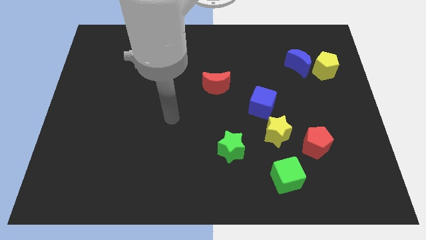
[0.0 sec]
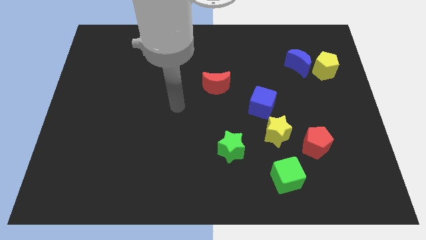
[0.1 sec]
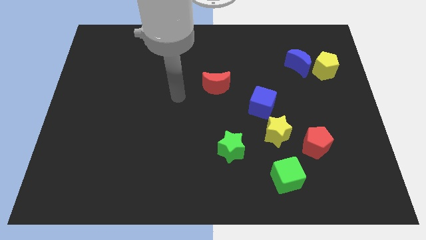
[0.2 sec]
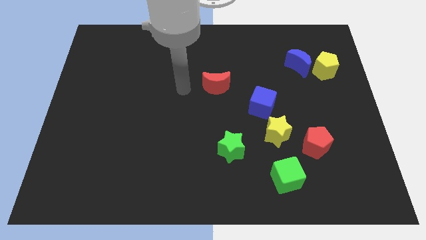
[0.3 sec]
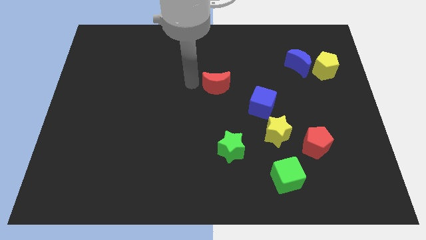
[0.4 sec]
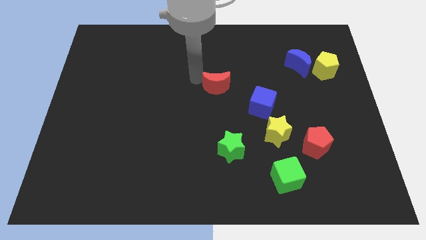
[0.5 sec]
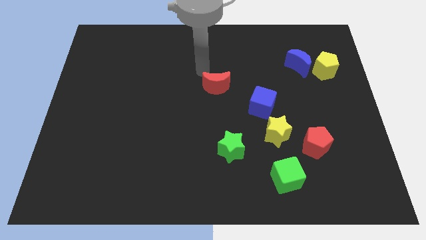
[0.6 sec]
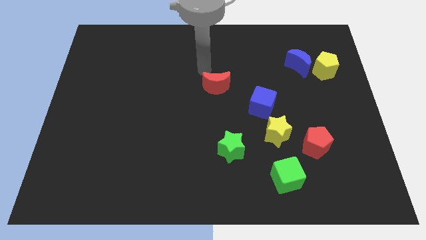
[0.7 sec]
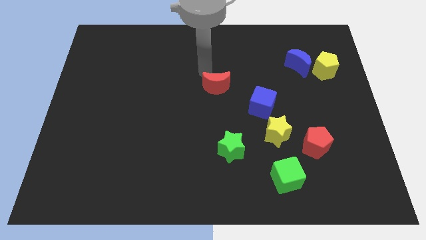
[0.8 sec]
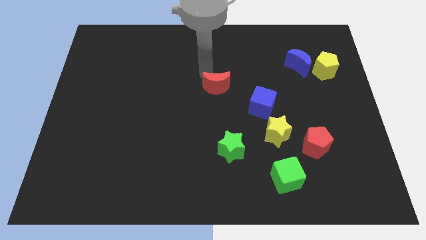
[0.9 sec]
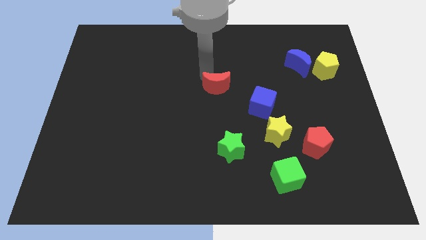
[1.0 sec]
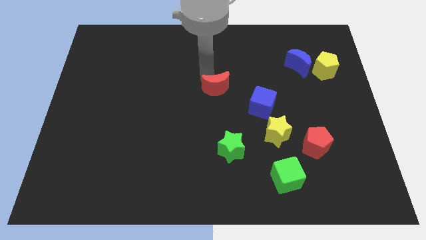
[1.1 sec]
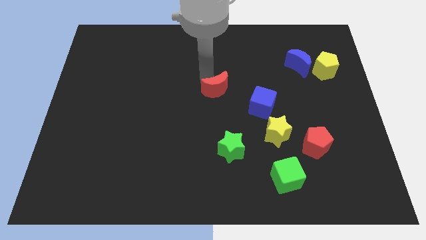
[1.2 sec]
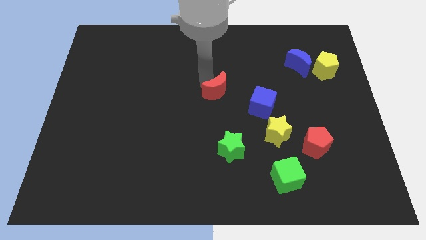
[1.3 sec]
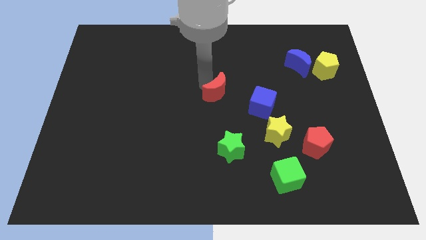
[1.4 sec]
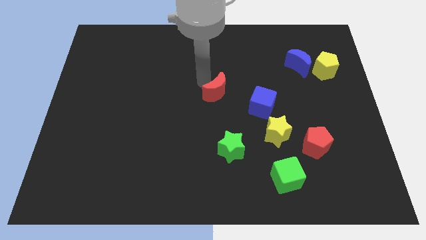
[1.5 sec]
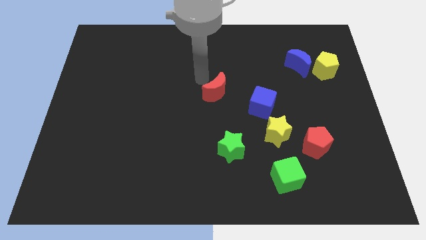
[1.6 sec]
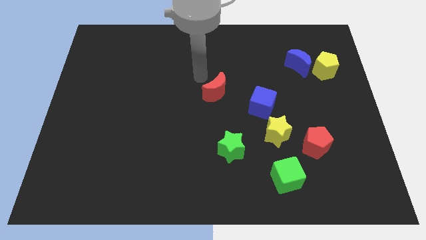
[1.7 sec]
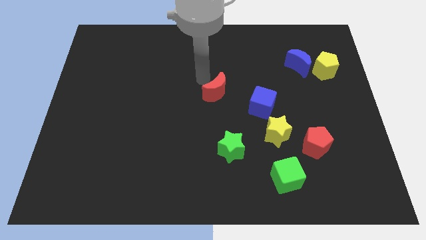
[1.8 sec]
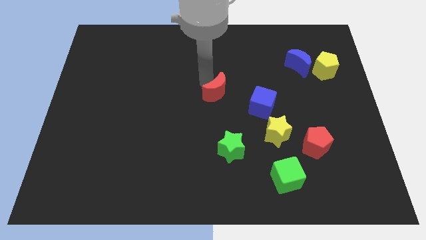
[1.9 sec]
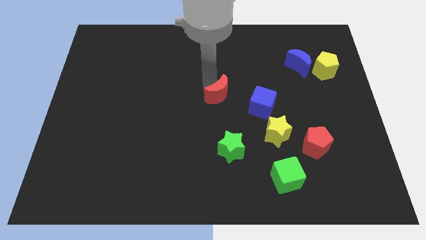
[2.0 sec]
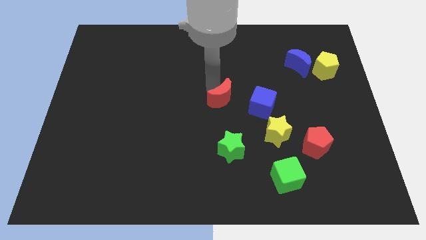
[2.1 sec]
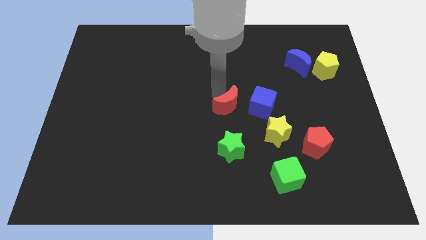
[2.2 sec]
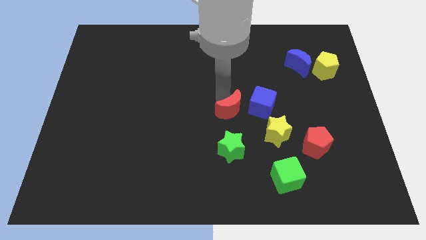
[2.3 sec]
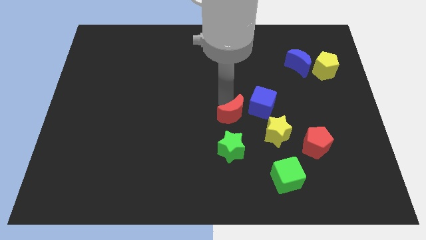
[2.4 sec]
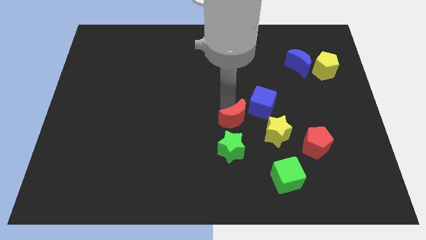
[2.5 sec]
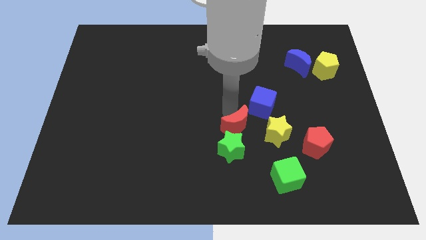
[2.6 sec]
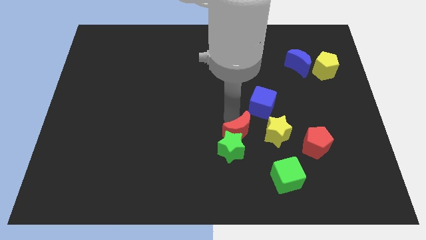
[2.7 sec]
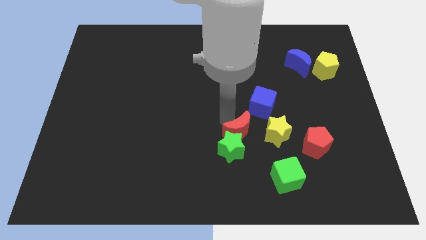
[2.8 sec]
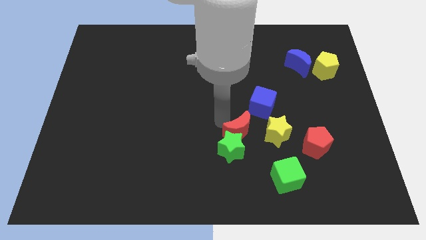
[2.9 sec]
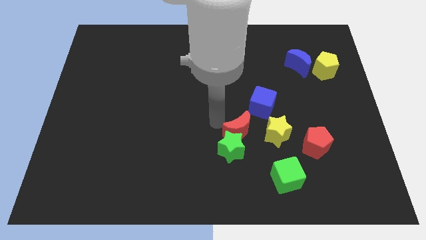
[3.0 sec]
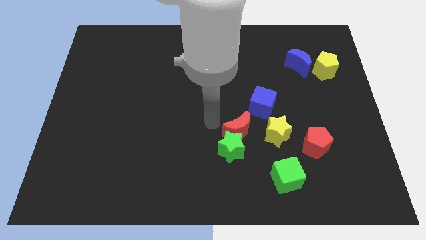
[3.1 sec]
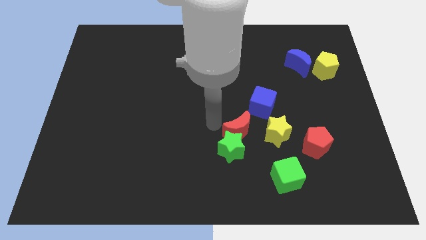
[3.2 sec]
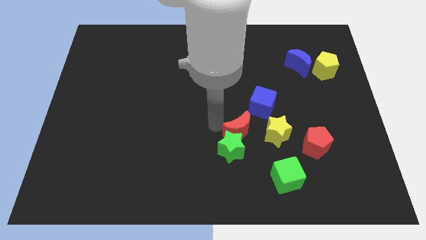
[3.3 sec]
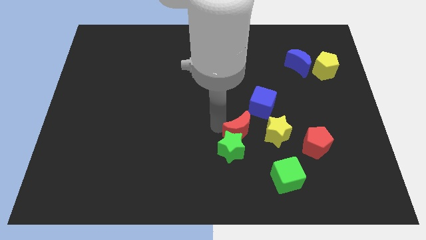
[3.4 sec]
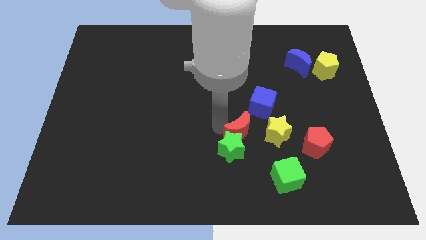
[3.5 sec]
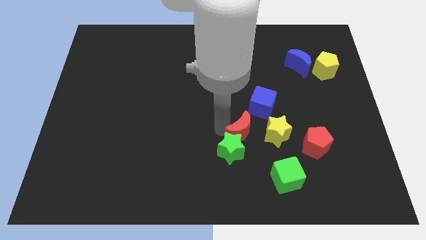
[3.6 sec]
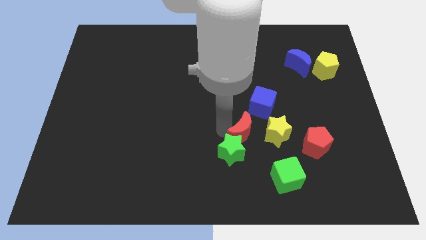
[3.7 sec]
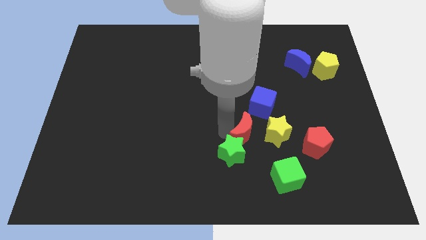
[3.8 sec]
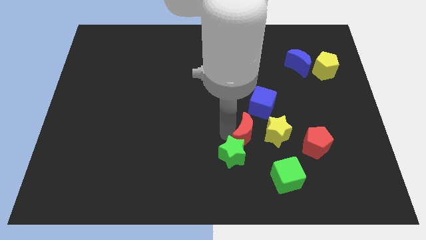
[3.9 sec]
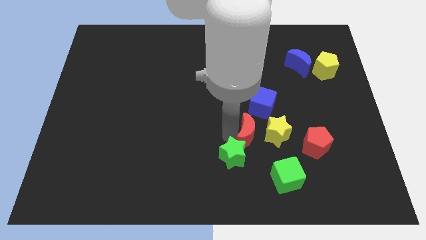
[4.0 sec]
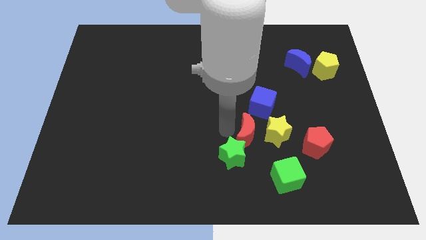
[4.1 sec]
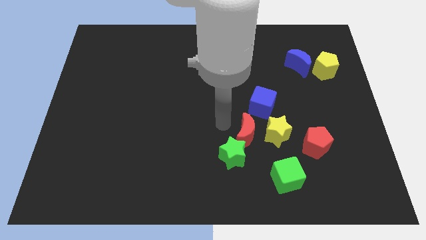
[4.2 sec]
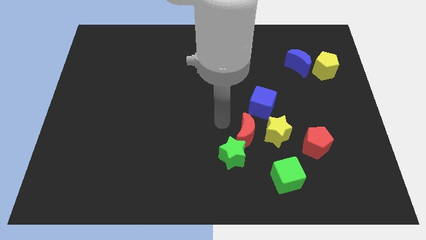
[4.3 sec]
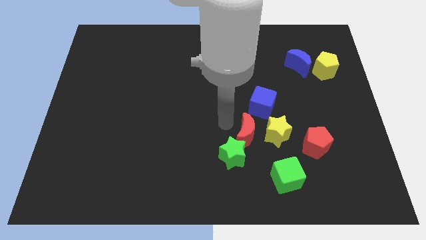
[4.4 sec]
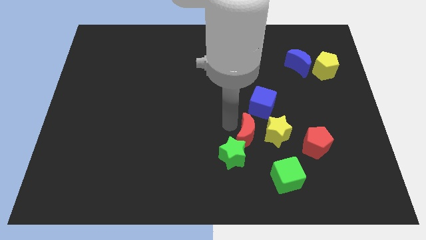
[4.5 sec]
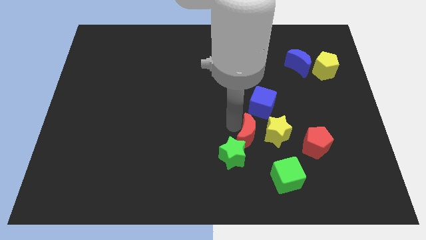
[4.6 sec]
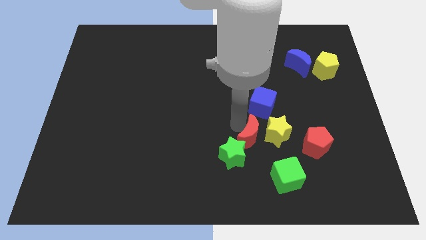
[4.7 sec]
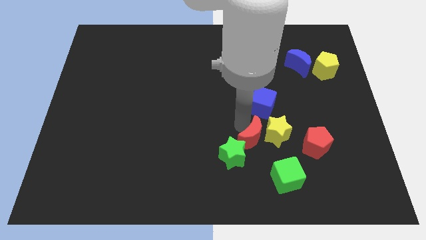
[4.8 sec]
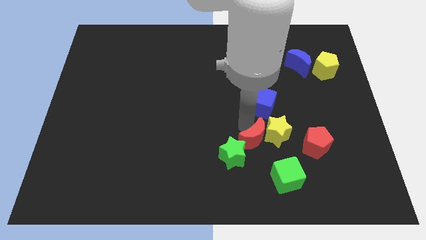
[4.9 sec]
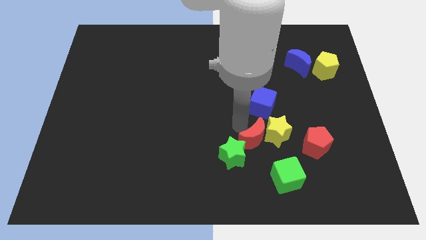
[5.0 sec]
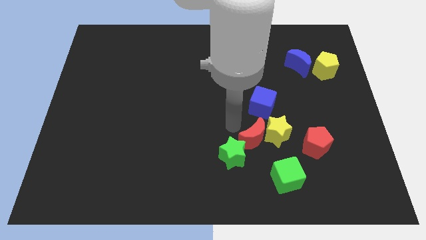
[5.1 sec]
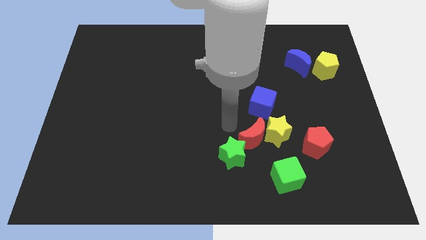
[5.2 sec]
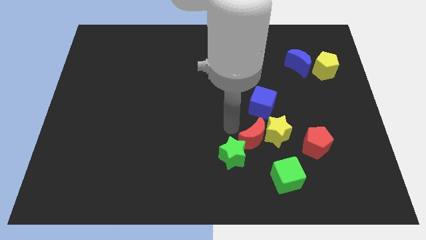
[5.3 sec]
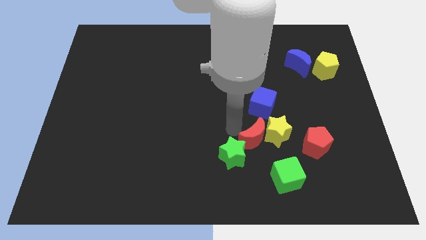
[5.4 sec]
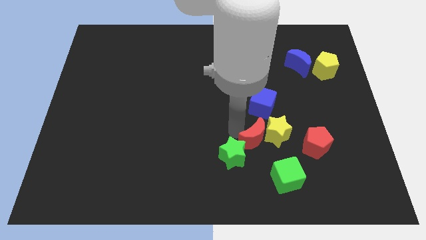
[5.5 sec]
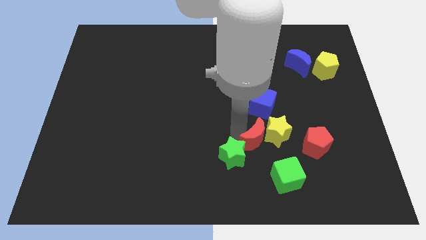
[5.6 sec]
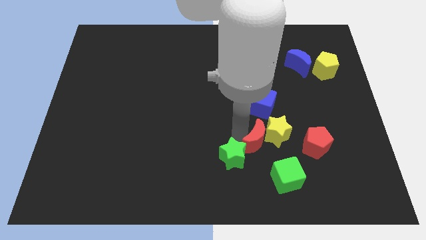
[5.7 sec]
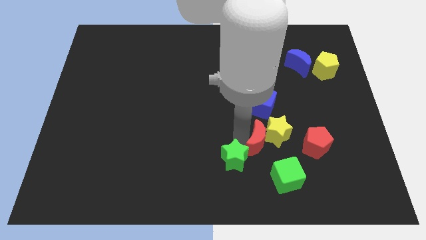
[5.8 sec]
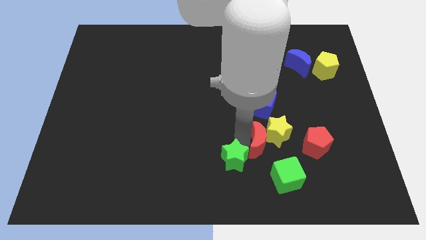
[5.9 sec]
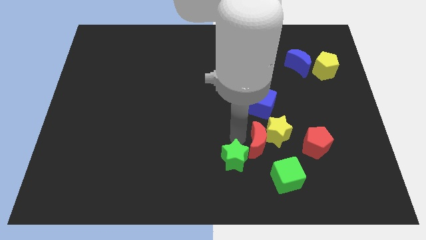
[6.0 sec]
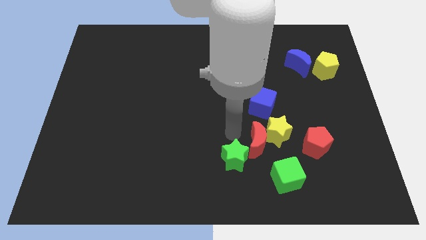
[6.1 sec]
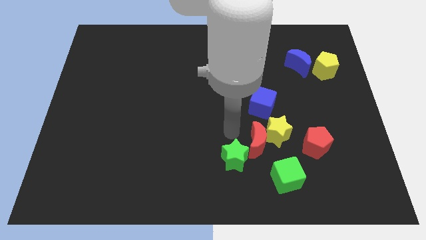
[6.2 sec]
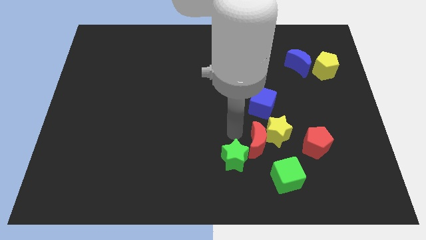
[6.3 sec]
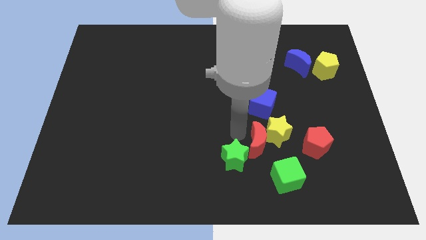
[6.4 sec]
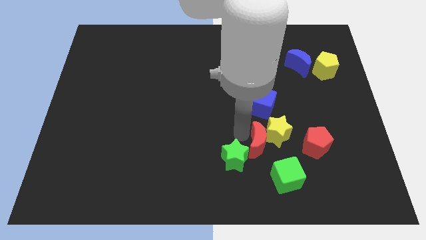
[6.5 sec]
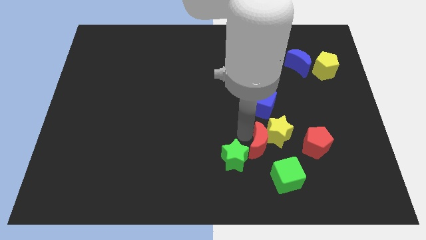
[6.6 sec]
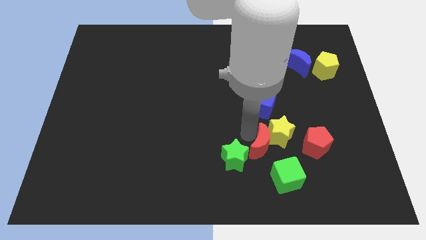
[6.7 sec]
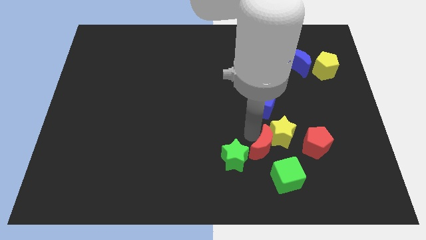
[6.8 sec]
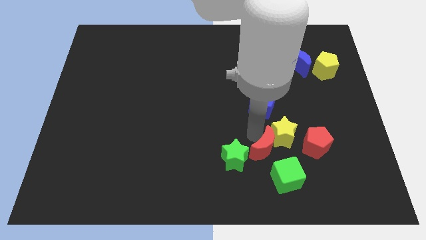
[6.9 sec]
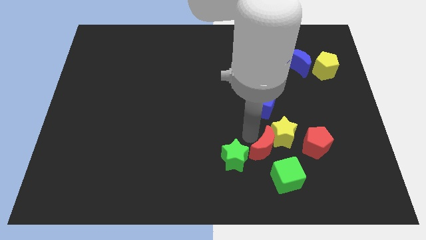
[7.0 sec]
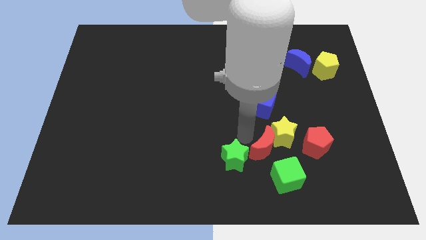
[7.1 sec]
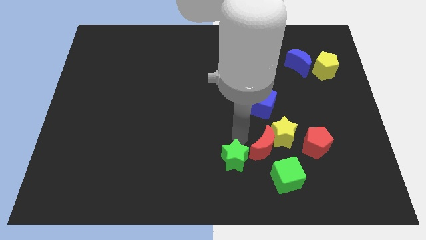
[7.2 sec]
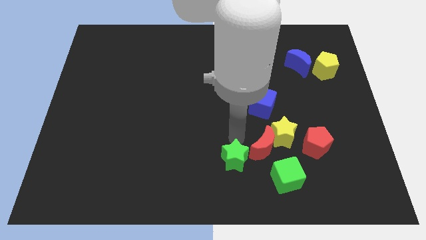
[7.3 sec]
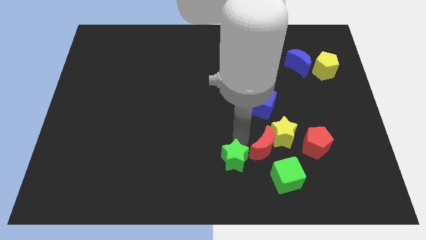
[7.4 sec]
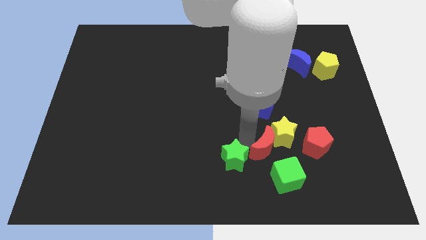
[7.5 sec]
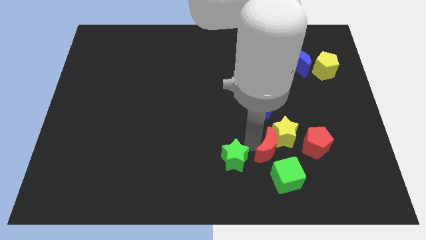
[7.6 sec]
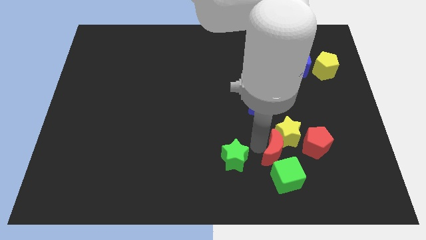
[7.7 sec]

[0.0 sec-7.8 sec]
move the red moon downwards and to the right diagonally

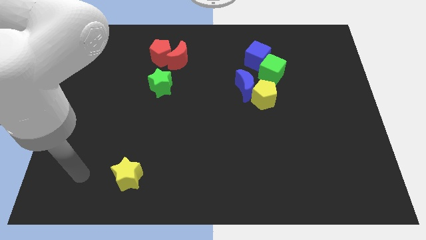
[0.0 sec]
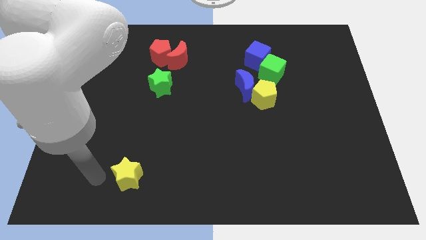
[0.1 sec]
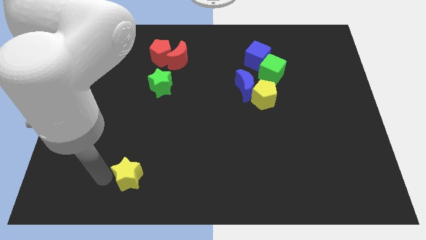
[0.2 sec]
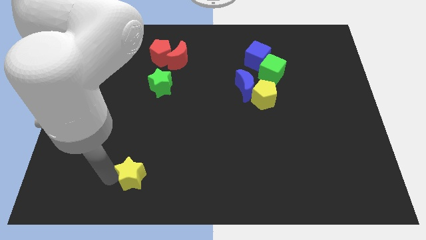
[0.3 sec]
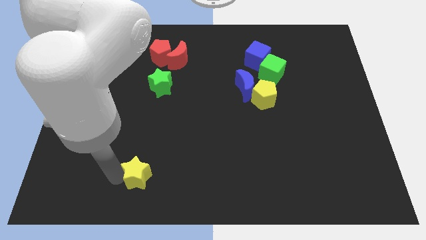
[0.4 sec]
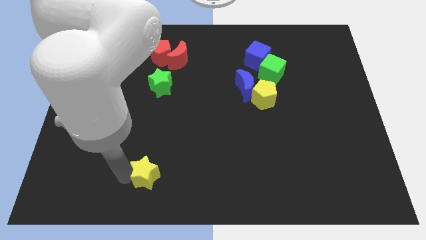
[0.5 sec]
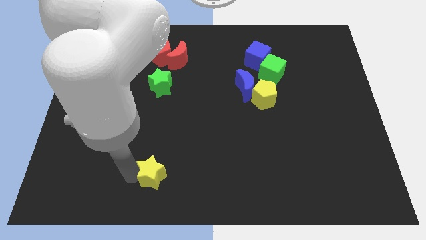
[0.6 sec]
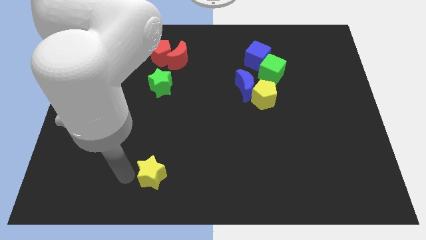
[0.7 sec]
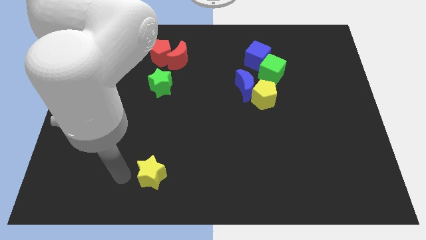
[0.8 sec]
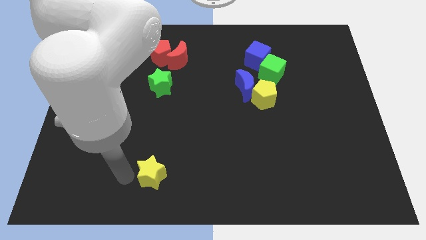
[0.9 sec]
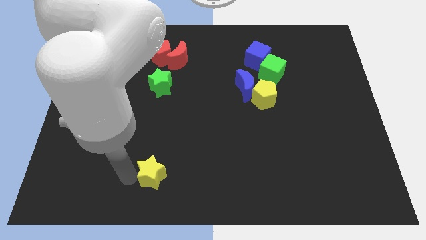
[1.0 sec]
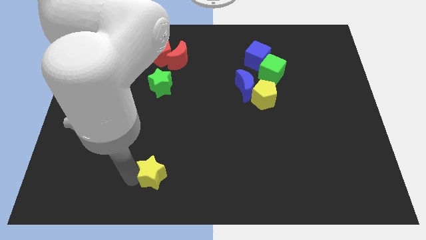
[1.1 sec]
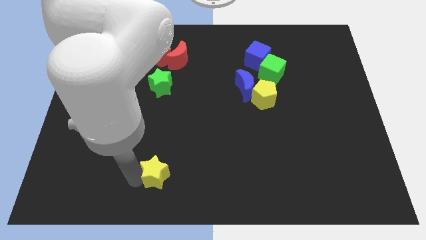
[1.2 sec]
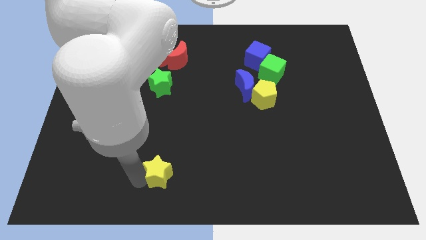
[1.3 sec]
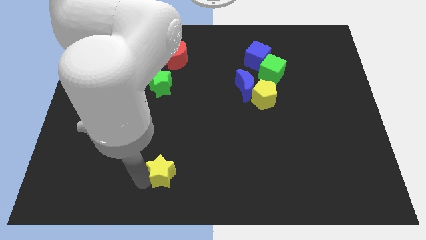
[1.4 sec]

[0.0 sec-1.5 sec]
push the yellow star to the right a bit
